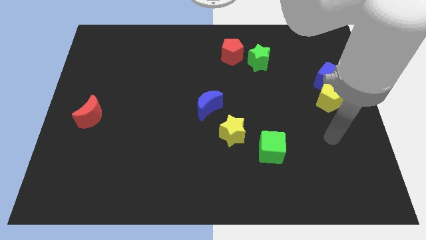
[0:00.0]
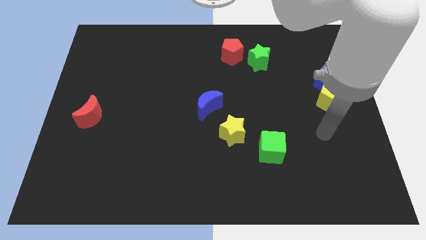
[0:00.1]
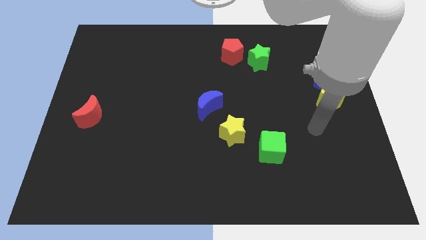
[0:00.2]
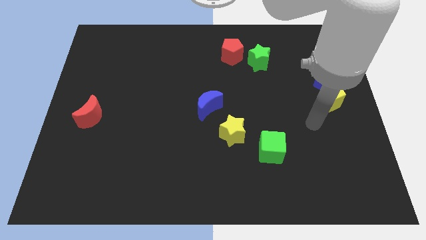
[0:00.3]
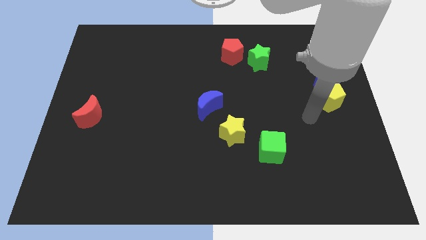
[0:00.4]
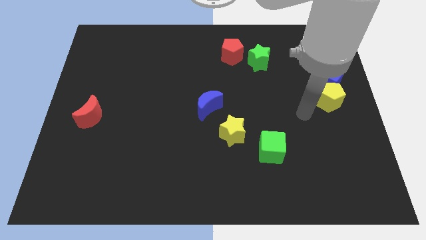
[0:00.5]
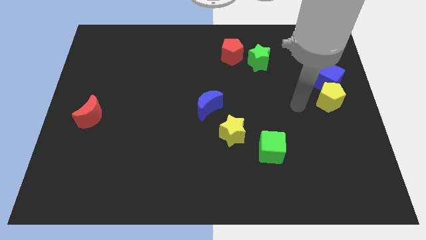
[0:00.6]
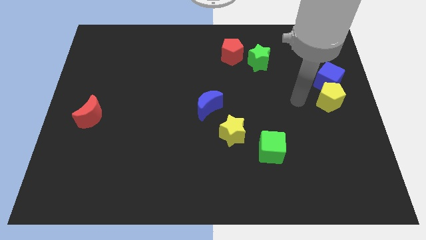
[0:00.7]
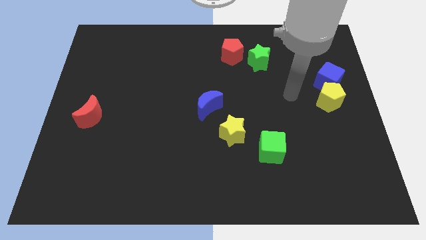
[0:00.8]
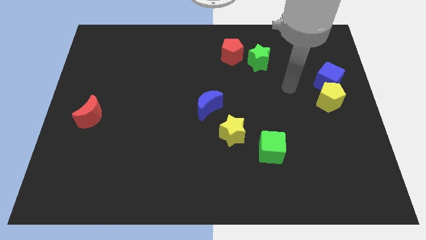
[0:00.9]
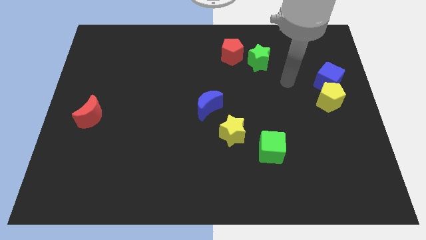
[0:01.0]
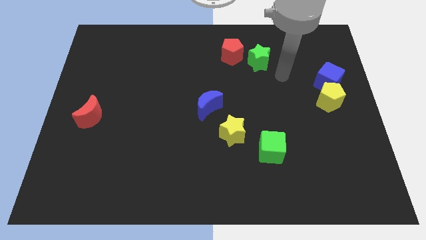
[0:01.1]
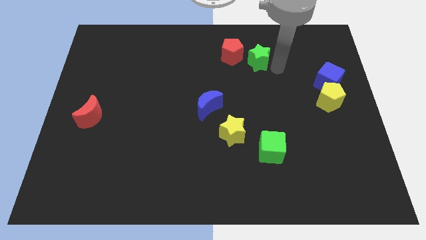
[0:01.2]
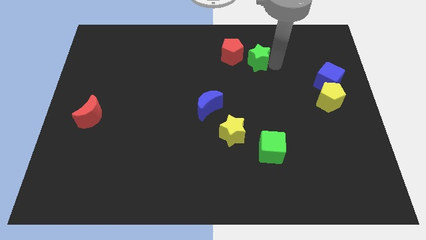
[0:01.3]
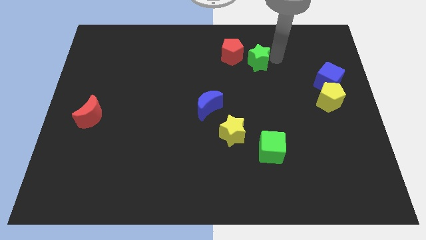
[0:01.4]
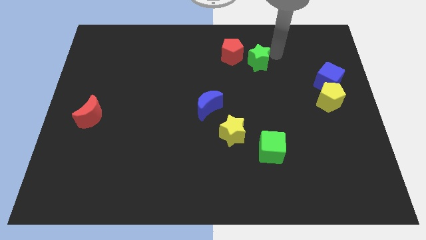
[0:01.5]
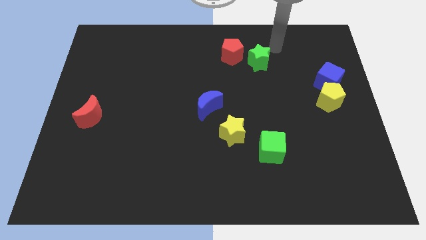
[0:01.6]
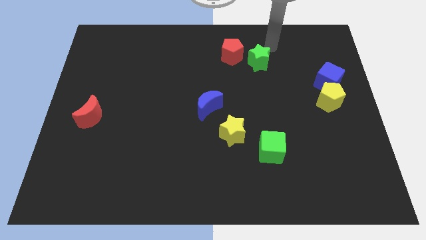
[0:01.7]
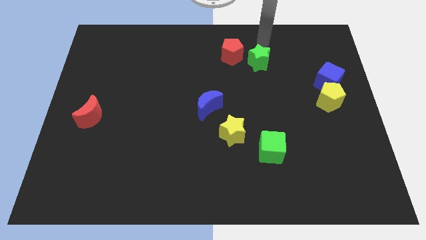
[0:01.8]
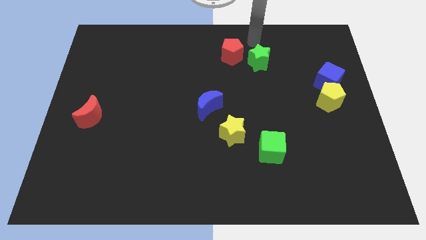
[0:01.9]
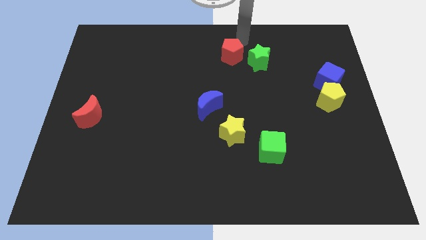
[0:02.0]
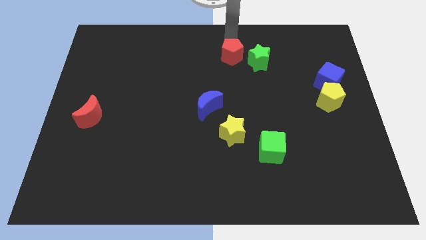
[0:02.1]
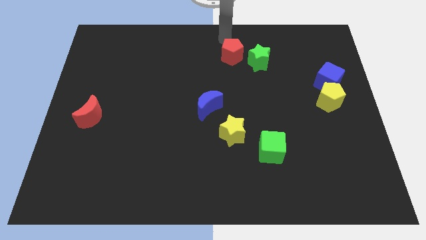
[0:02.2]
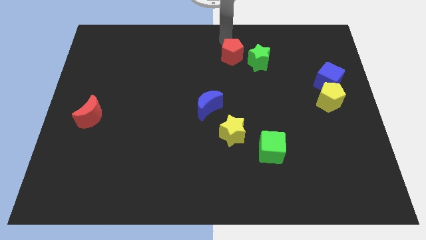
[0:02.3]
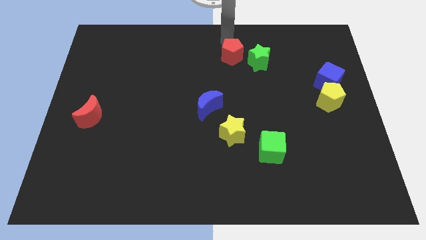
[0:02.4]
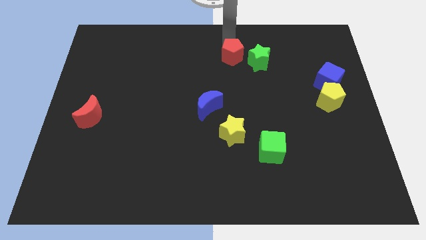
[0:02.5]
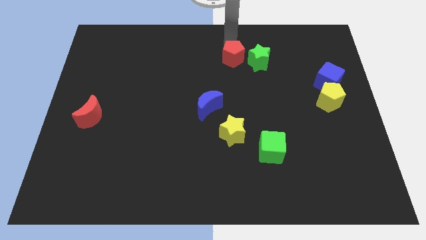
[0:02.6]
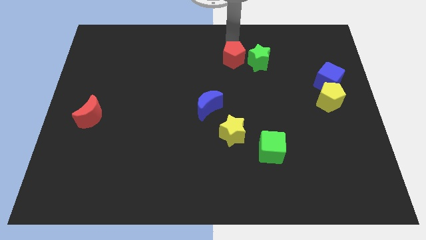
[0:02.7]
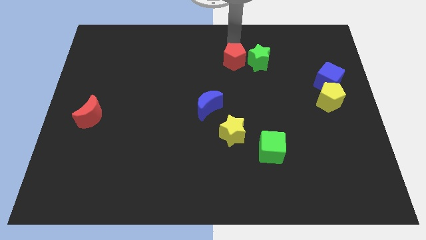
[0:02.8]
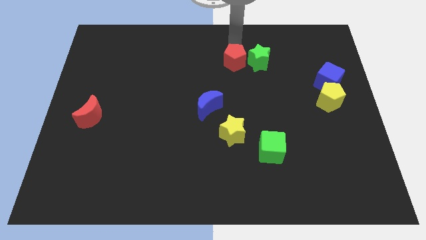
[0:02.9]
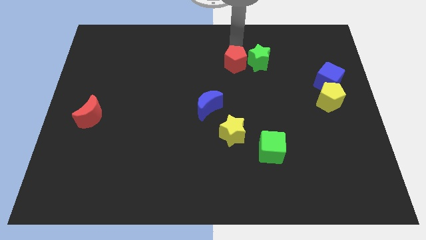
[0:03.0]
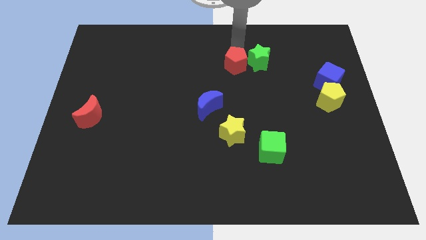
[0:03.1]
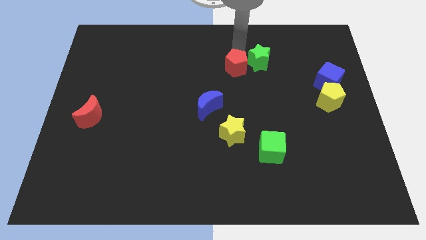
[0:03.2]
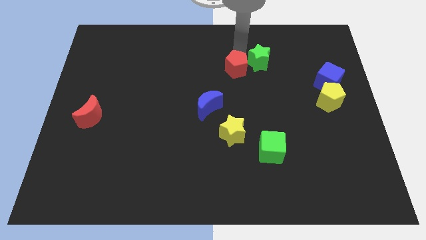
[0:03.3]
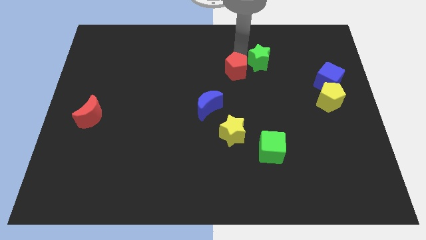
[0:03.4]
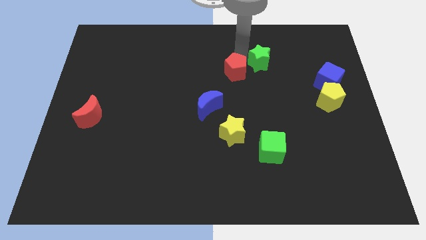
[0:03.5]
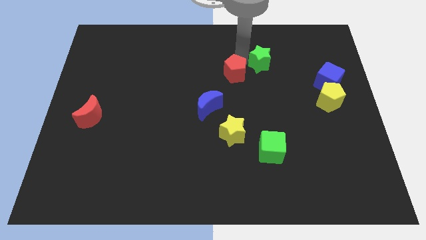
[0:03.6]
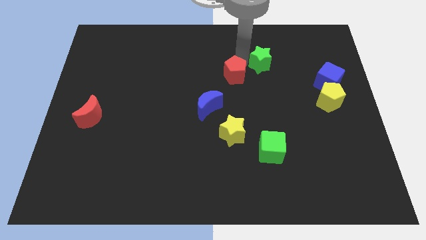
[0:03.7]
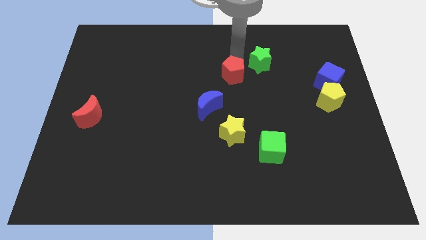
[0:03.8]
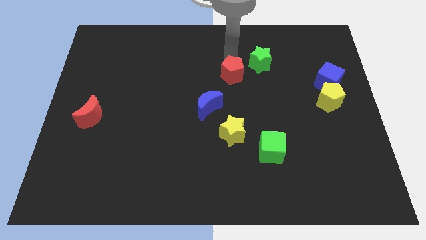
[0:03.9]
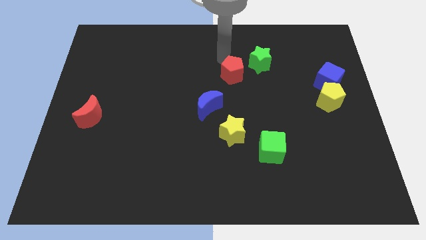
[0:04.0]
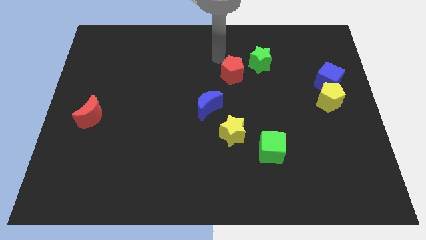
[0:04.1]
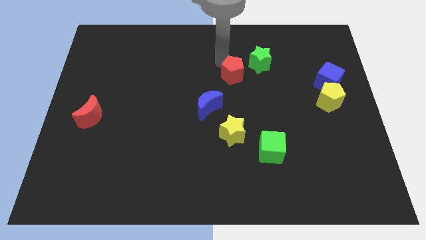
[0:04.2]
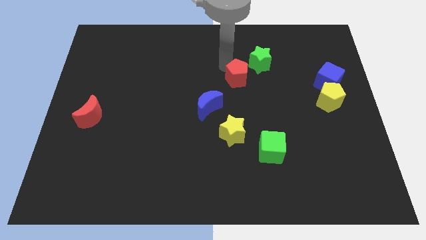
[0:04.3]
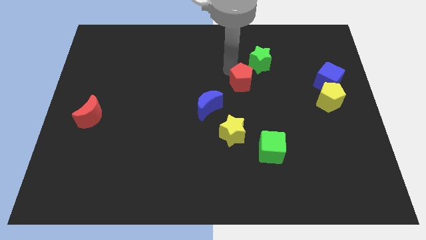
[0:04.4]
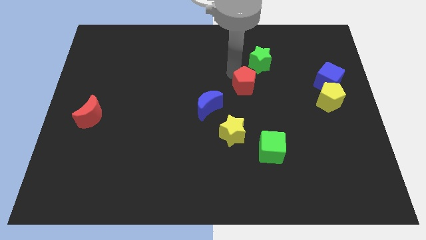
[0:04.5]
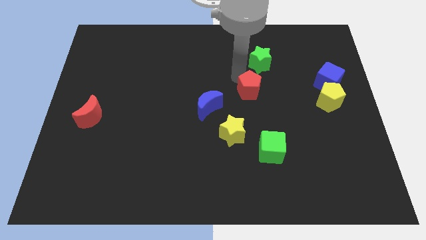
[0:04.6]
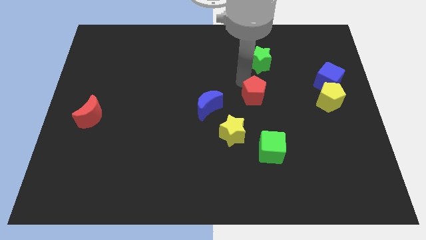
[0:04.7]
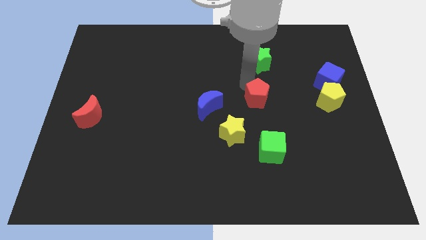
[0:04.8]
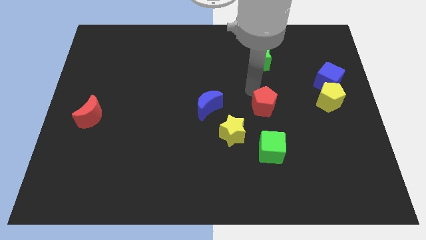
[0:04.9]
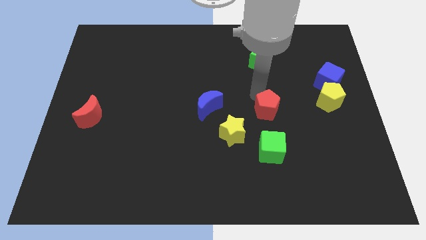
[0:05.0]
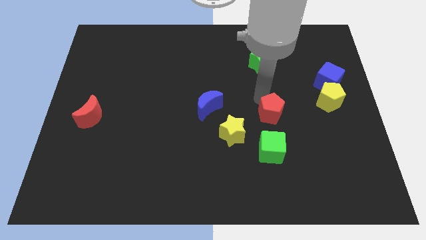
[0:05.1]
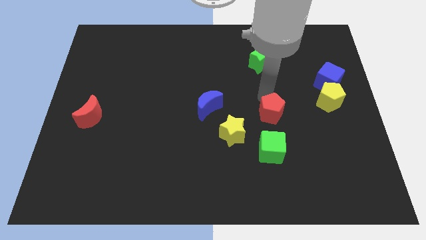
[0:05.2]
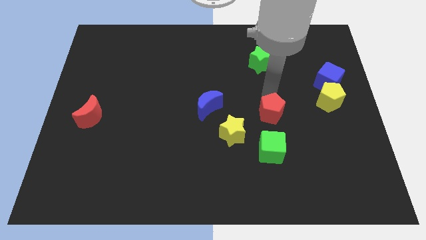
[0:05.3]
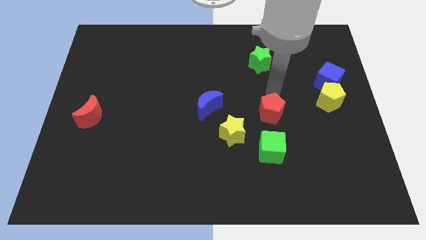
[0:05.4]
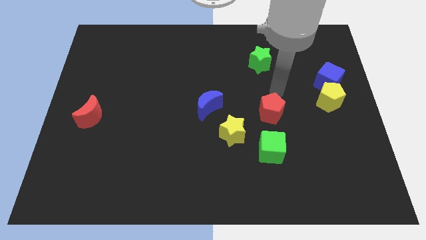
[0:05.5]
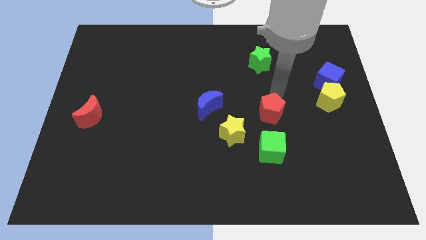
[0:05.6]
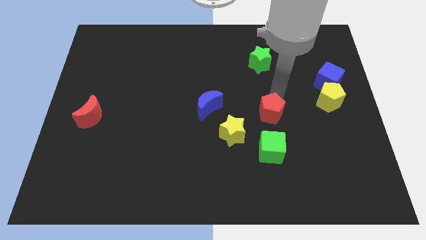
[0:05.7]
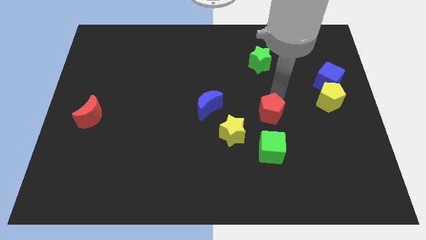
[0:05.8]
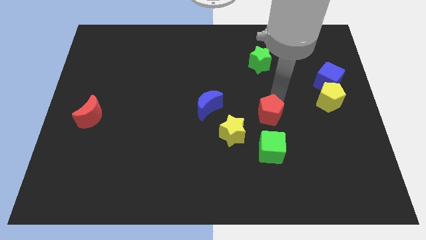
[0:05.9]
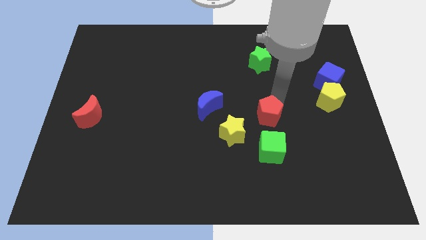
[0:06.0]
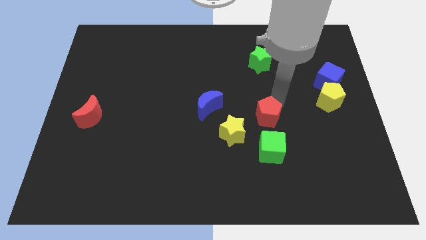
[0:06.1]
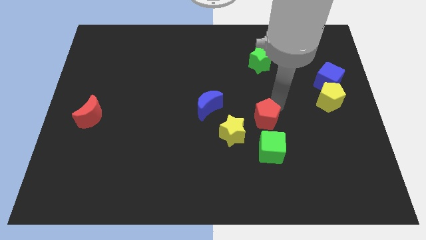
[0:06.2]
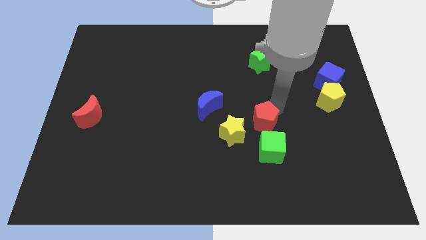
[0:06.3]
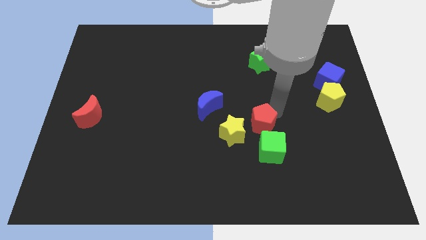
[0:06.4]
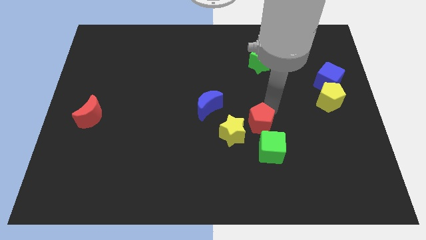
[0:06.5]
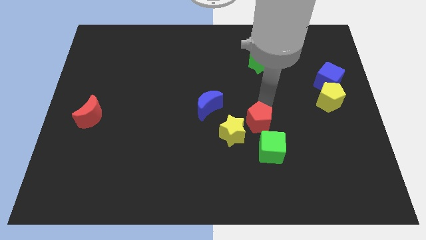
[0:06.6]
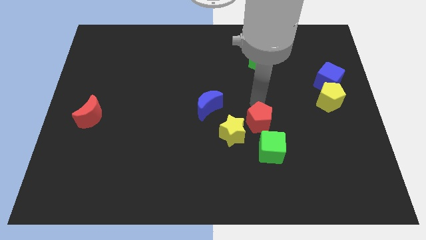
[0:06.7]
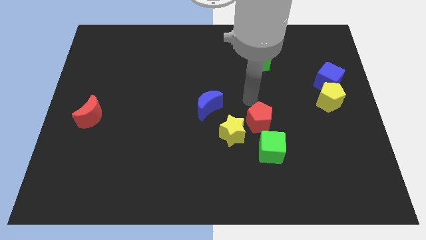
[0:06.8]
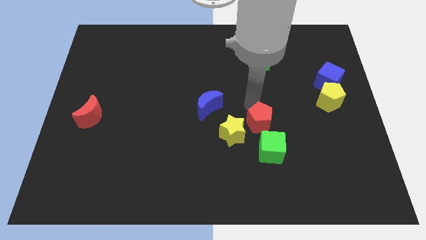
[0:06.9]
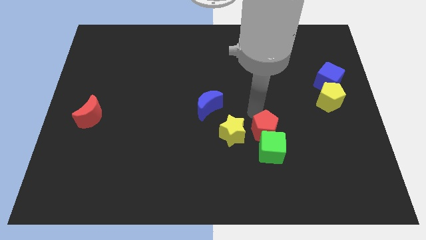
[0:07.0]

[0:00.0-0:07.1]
move the red pentagon to the green cube

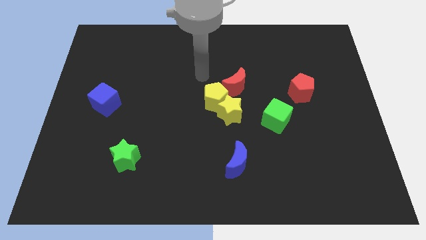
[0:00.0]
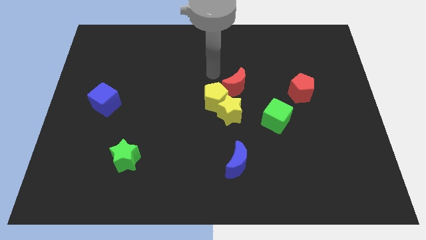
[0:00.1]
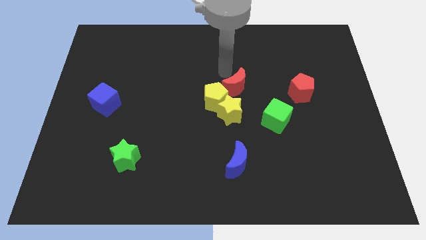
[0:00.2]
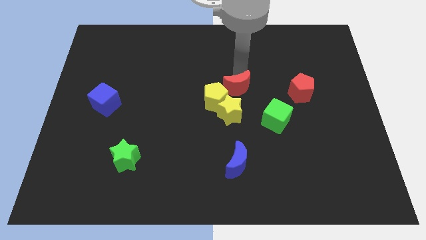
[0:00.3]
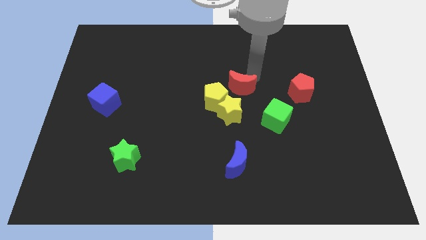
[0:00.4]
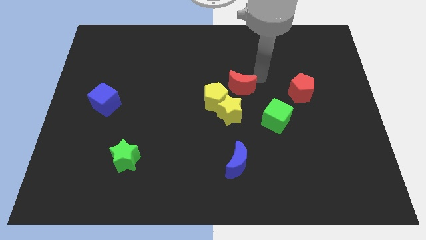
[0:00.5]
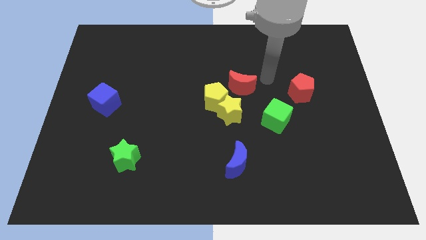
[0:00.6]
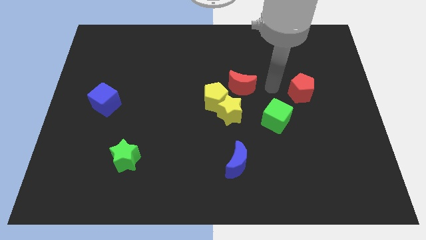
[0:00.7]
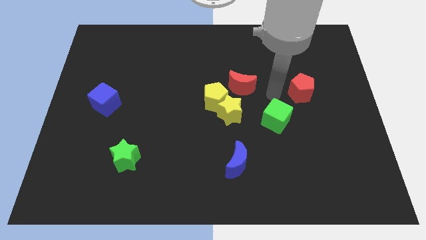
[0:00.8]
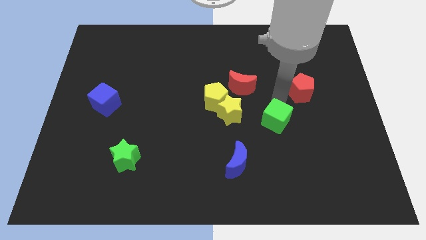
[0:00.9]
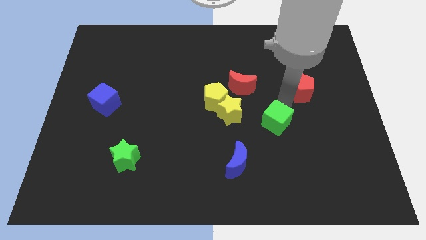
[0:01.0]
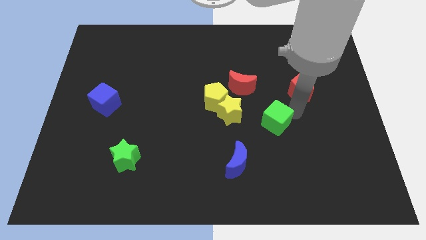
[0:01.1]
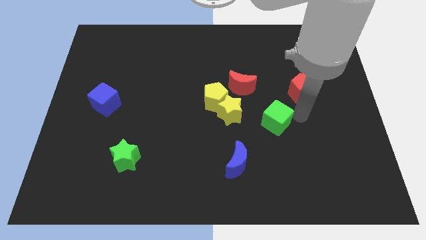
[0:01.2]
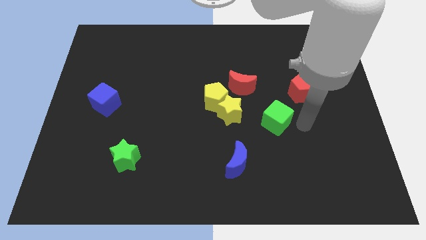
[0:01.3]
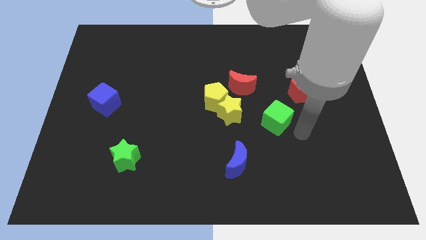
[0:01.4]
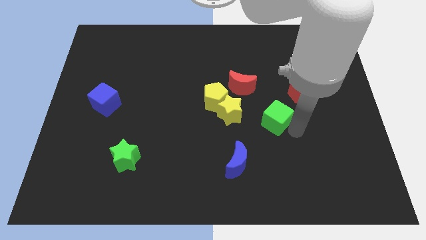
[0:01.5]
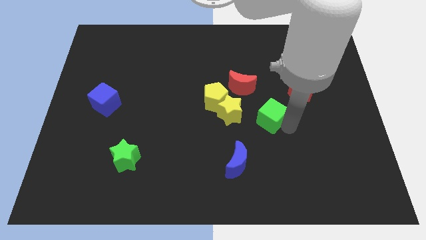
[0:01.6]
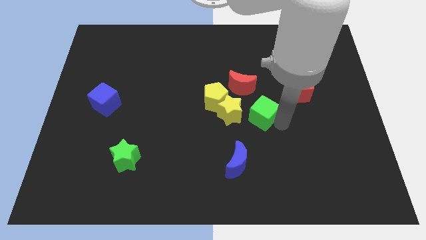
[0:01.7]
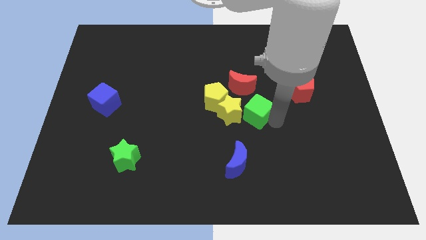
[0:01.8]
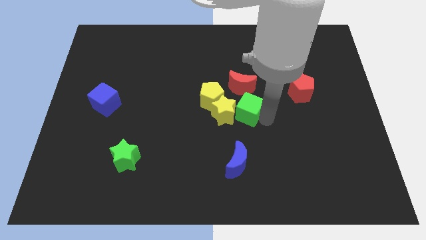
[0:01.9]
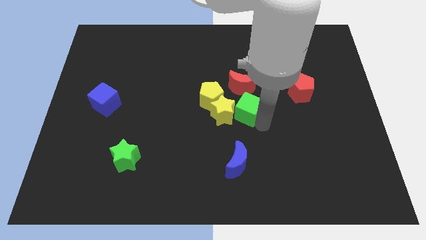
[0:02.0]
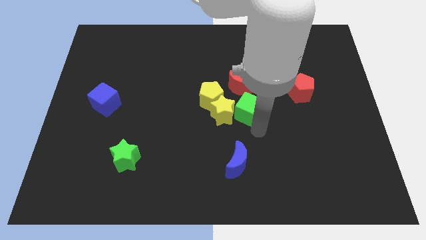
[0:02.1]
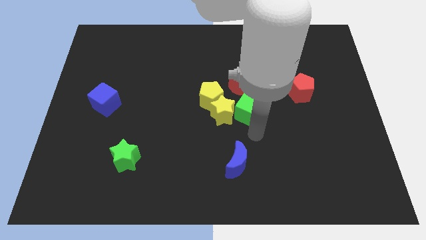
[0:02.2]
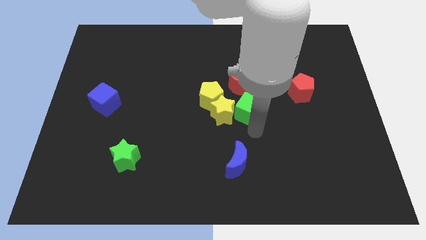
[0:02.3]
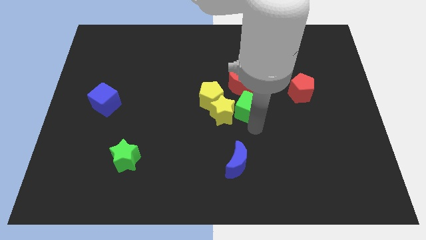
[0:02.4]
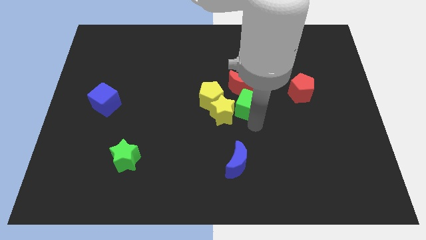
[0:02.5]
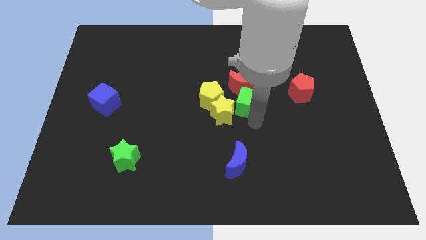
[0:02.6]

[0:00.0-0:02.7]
move the green cube towards the red moon
